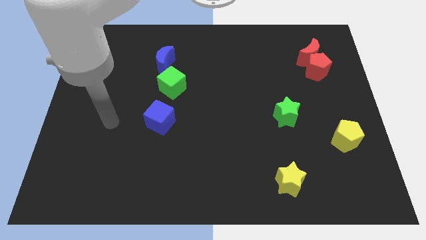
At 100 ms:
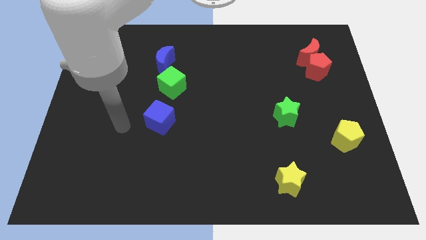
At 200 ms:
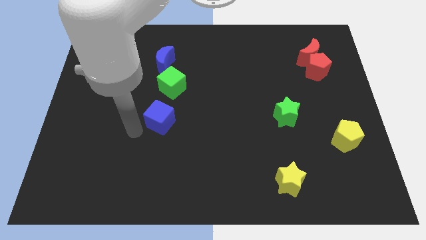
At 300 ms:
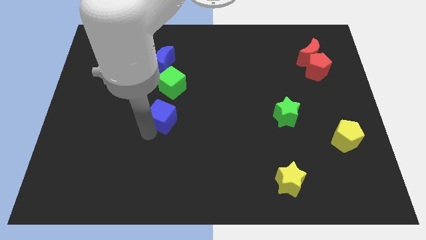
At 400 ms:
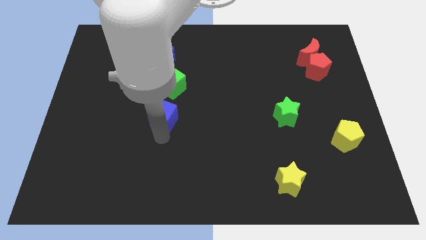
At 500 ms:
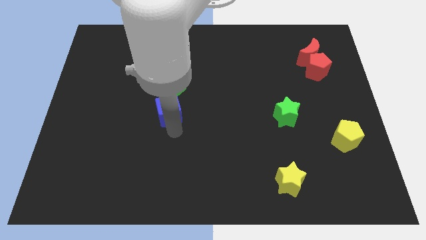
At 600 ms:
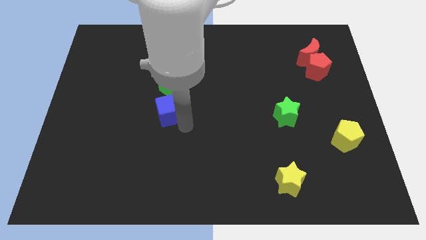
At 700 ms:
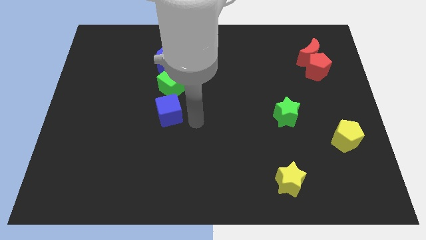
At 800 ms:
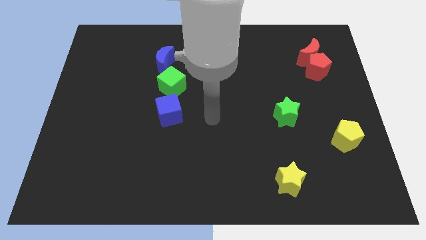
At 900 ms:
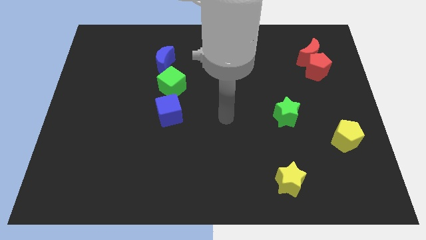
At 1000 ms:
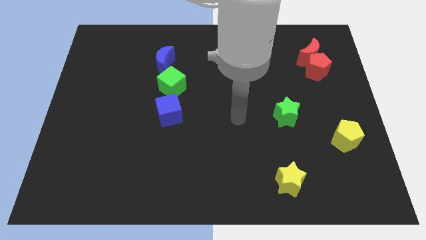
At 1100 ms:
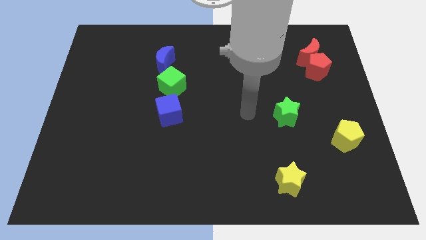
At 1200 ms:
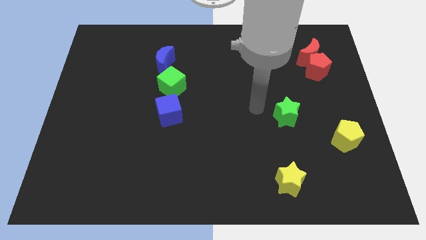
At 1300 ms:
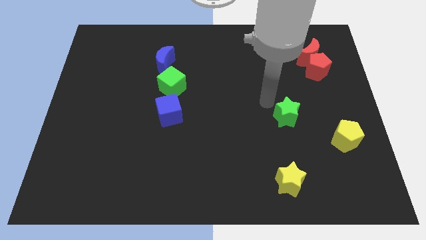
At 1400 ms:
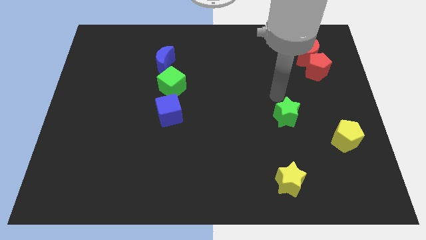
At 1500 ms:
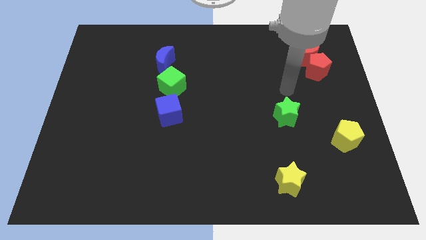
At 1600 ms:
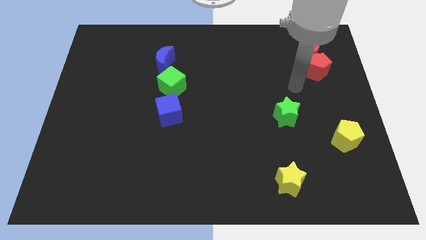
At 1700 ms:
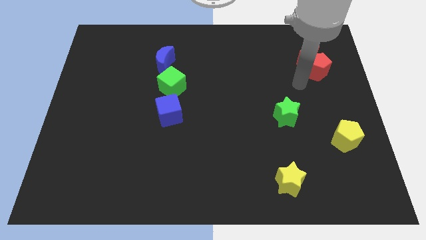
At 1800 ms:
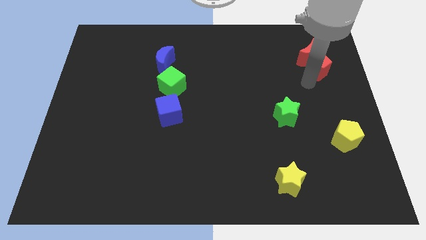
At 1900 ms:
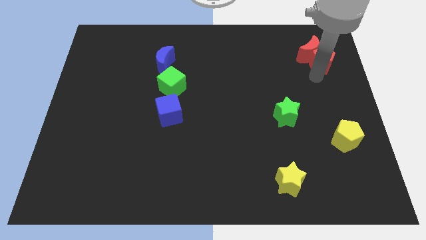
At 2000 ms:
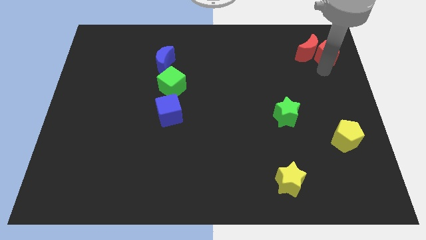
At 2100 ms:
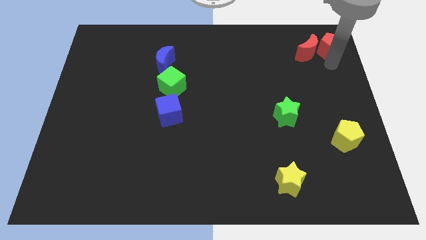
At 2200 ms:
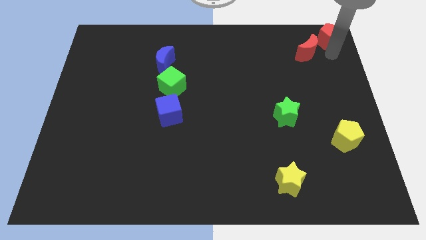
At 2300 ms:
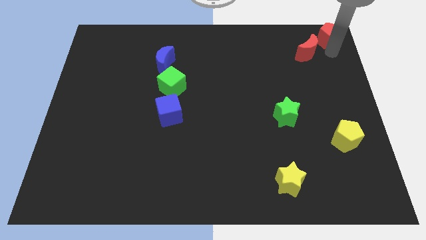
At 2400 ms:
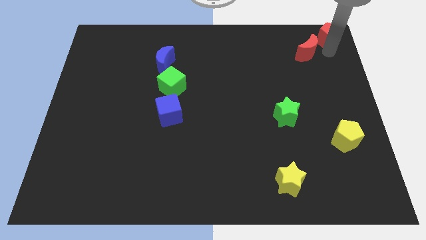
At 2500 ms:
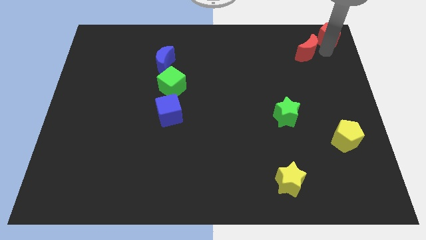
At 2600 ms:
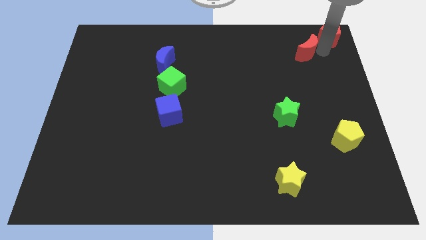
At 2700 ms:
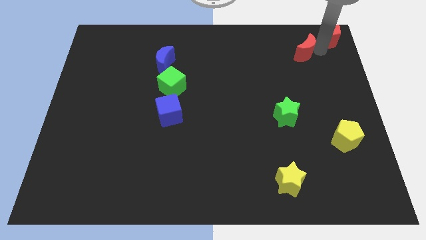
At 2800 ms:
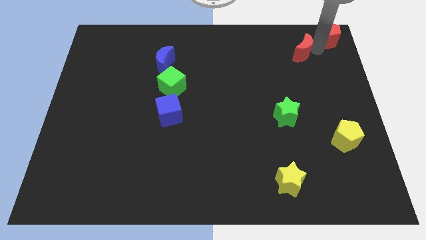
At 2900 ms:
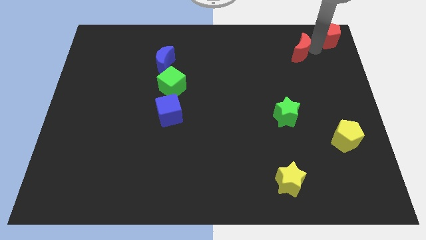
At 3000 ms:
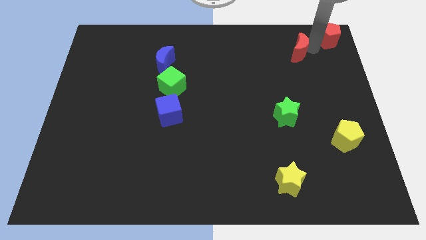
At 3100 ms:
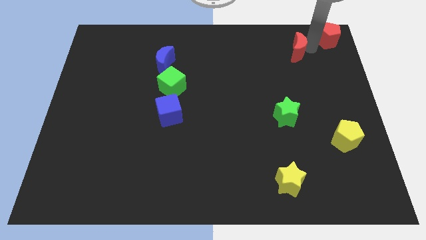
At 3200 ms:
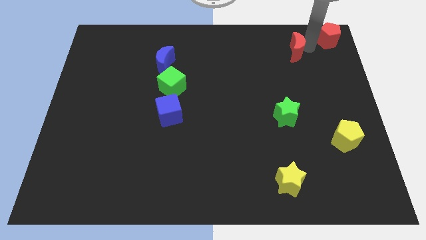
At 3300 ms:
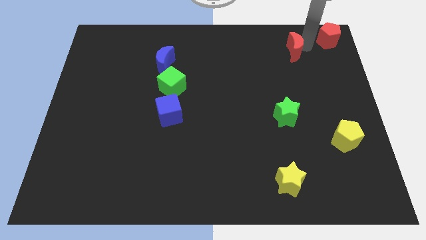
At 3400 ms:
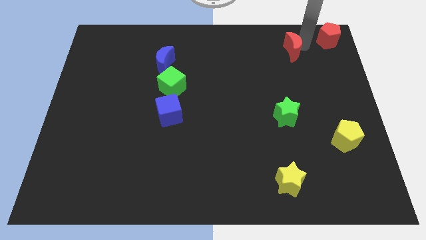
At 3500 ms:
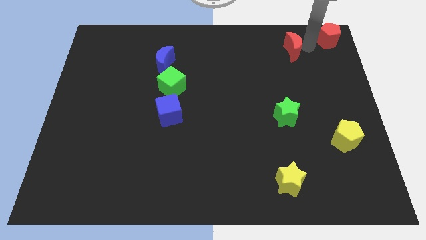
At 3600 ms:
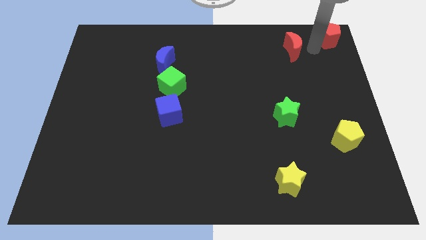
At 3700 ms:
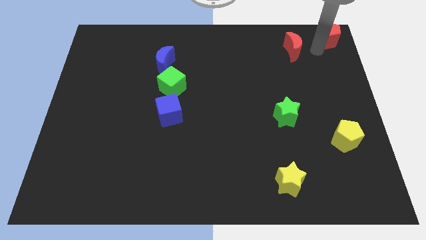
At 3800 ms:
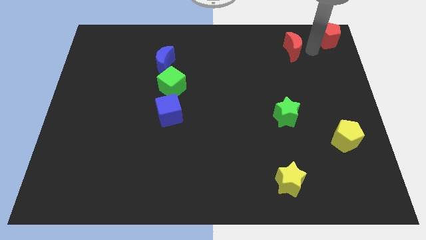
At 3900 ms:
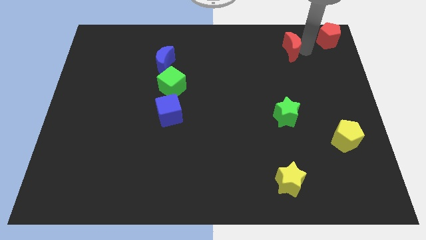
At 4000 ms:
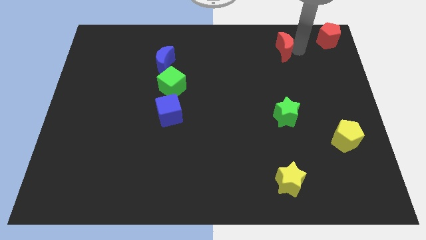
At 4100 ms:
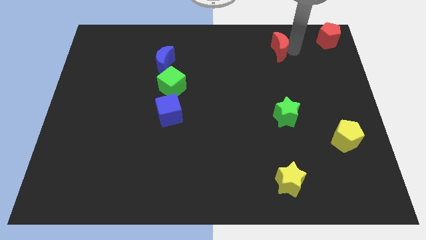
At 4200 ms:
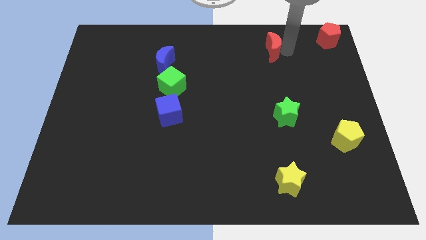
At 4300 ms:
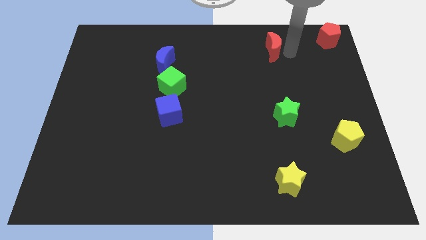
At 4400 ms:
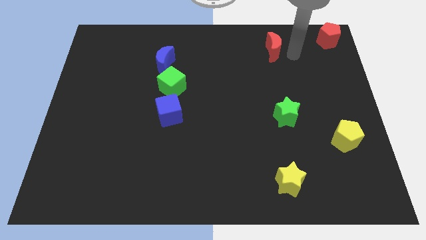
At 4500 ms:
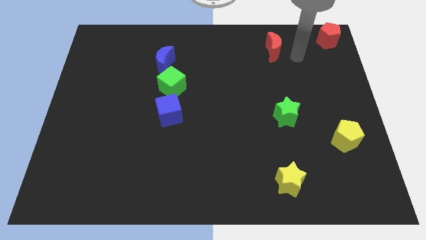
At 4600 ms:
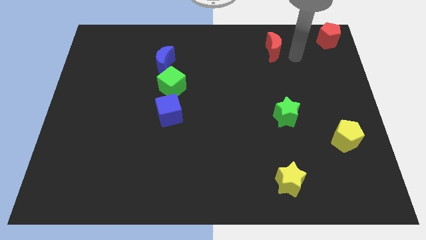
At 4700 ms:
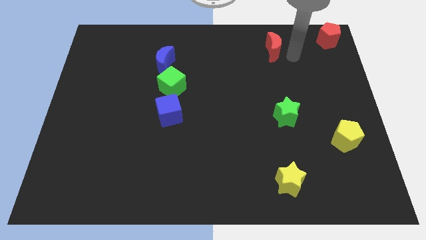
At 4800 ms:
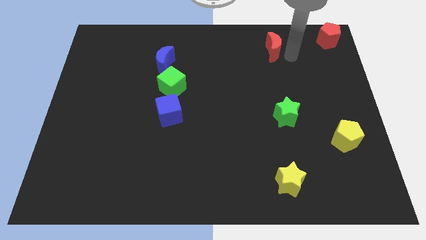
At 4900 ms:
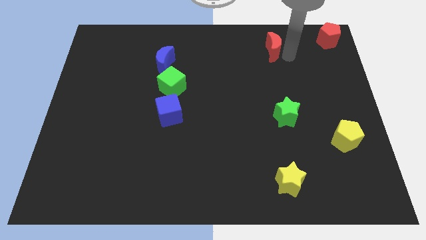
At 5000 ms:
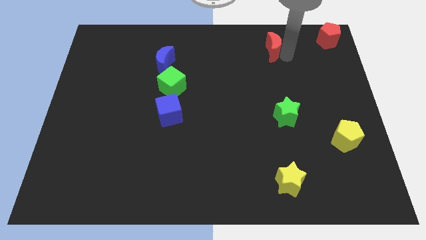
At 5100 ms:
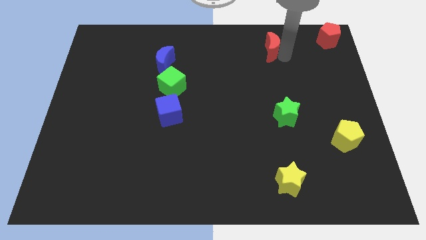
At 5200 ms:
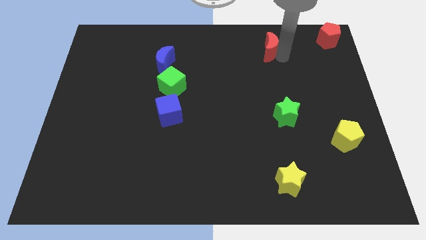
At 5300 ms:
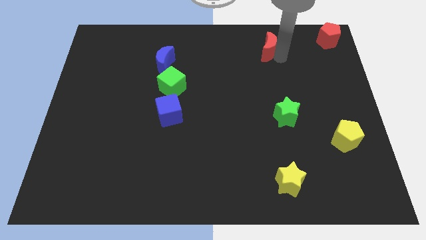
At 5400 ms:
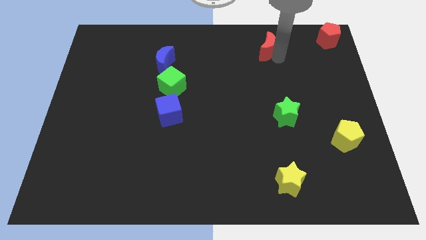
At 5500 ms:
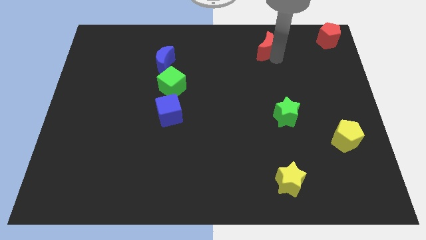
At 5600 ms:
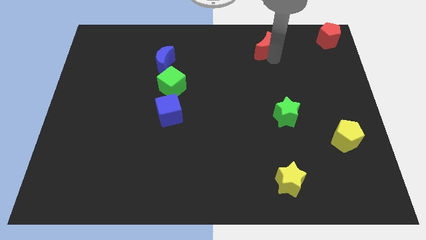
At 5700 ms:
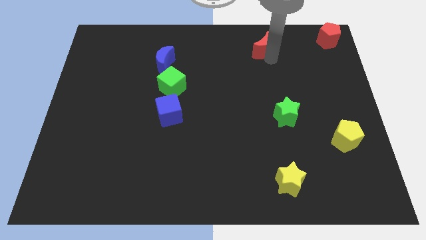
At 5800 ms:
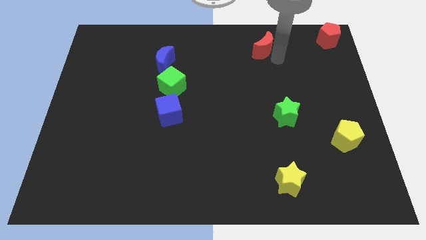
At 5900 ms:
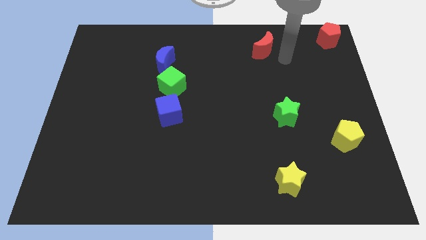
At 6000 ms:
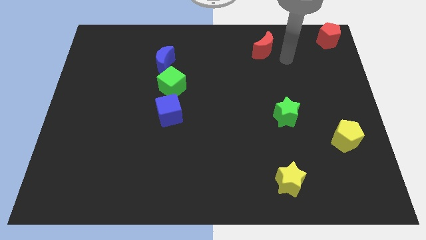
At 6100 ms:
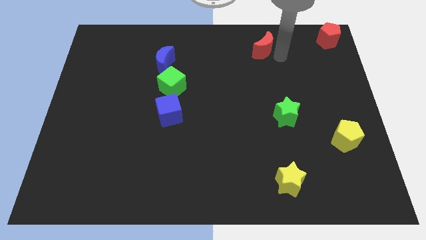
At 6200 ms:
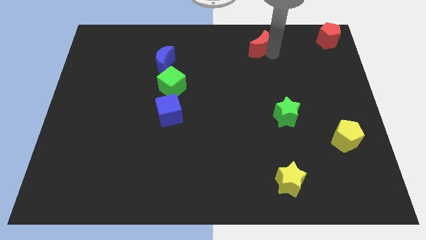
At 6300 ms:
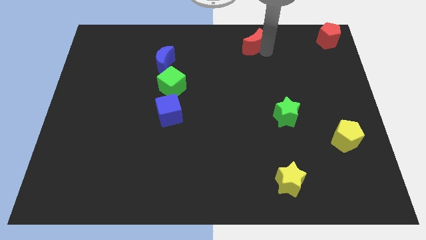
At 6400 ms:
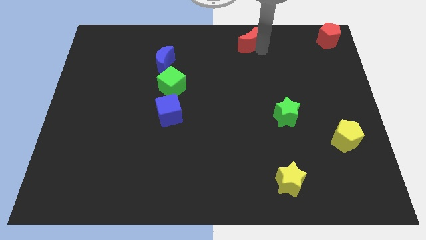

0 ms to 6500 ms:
move the red moon to the top
